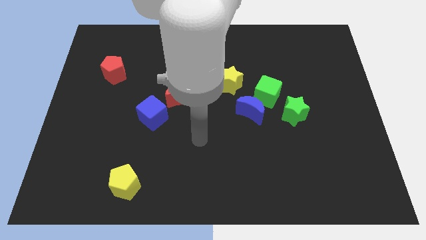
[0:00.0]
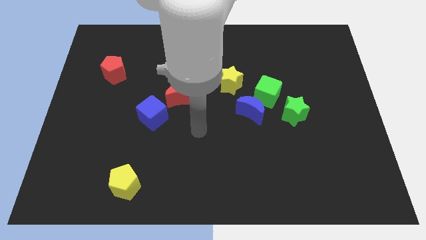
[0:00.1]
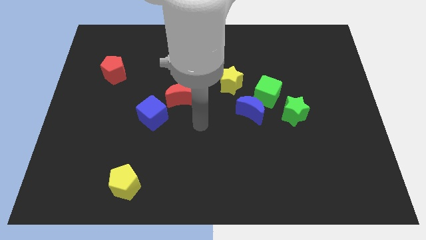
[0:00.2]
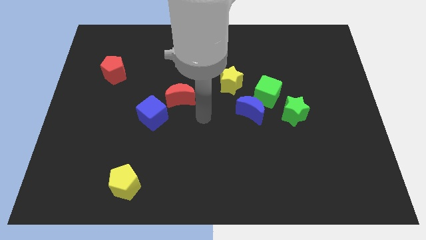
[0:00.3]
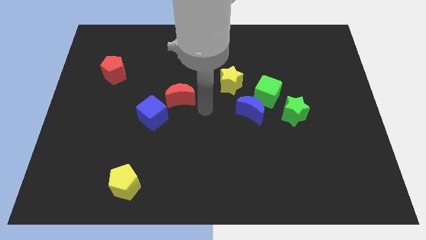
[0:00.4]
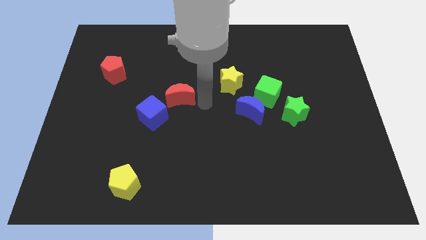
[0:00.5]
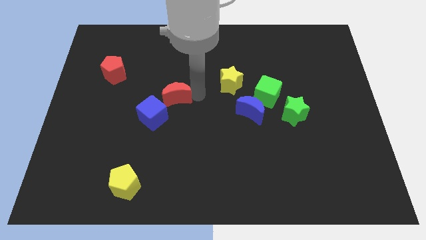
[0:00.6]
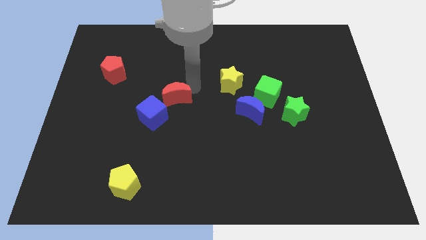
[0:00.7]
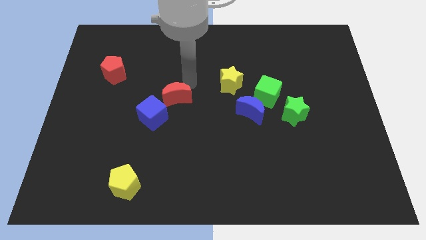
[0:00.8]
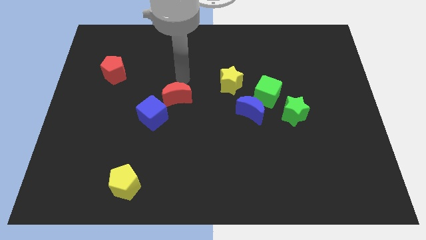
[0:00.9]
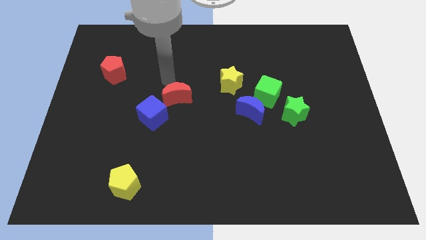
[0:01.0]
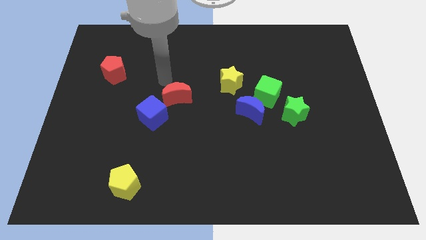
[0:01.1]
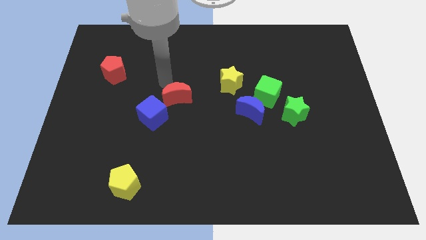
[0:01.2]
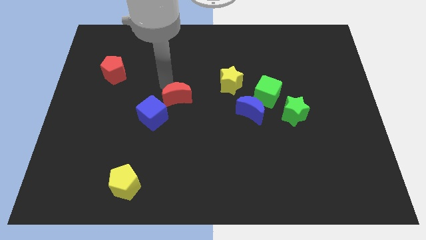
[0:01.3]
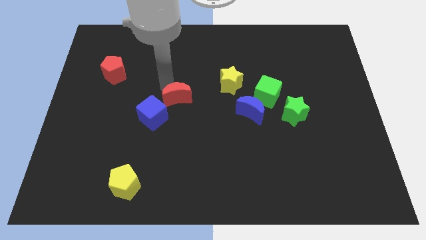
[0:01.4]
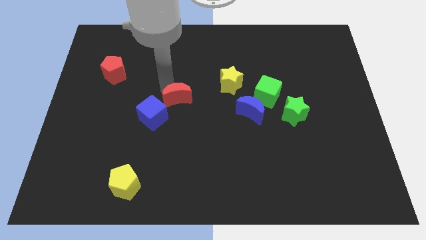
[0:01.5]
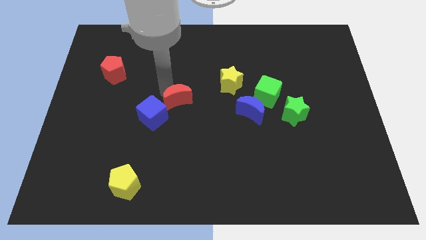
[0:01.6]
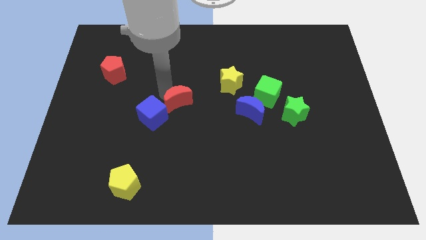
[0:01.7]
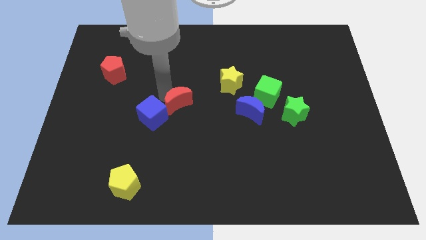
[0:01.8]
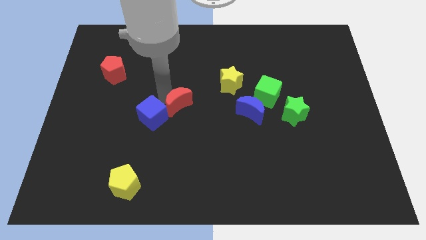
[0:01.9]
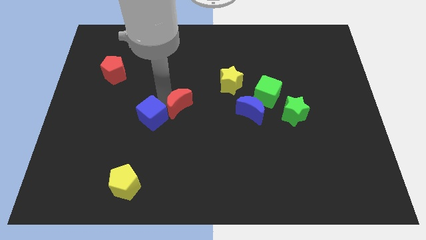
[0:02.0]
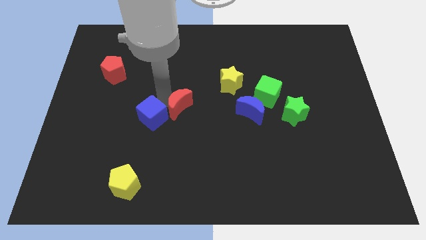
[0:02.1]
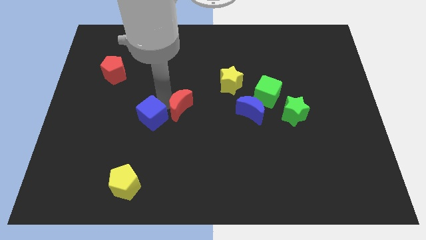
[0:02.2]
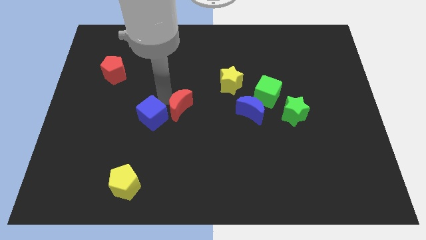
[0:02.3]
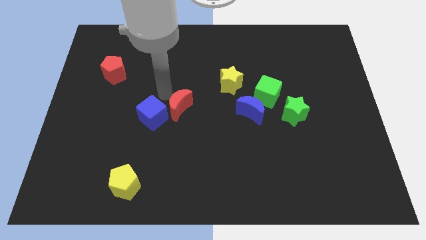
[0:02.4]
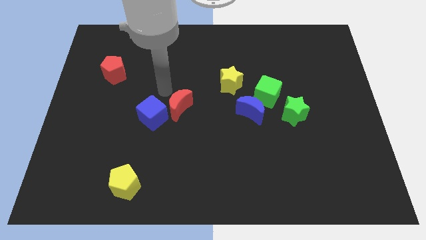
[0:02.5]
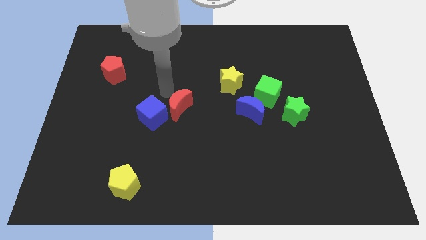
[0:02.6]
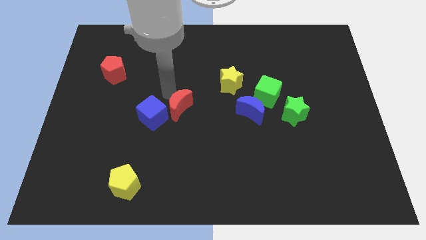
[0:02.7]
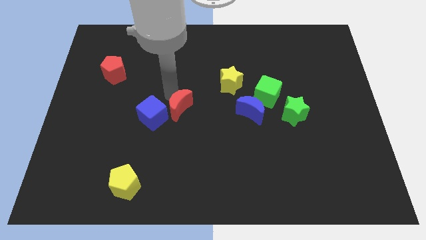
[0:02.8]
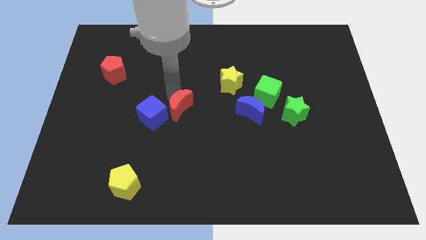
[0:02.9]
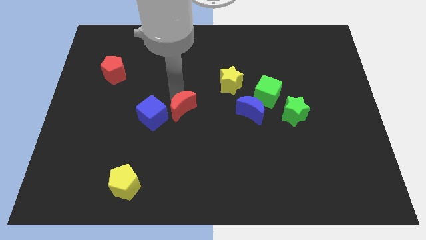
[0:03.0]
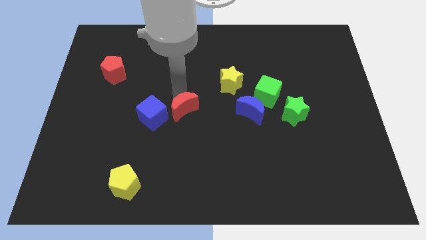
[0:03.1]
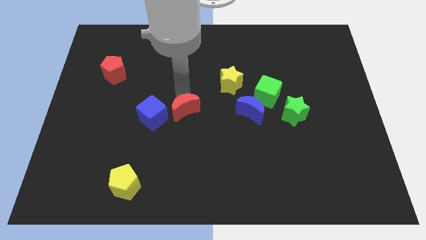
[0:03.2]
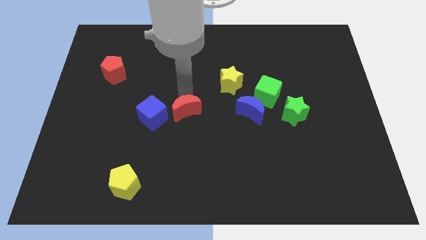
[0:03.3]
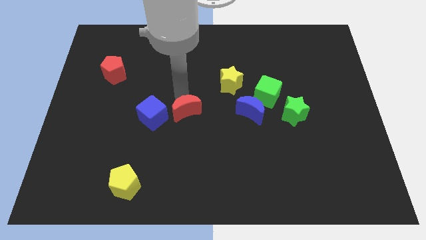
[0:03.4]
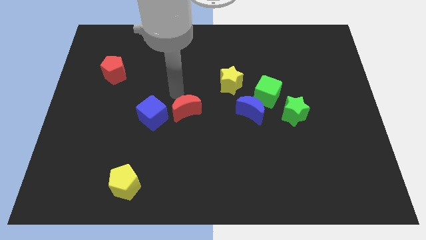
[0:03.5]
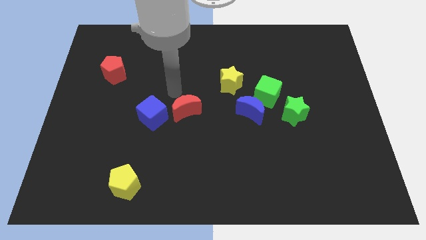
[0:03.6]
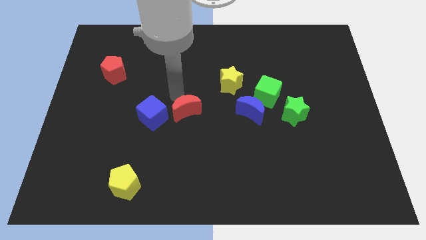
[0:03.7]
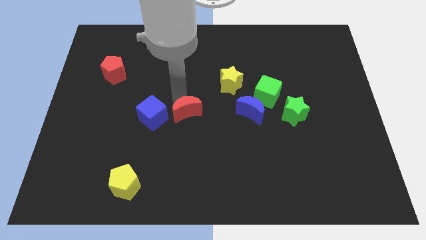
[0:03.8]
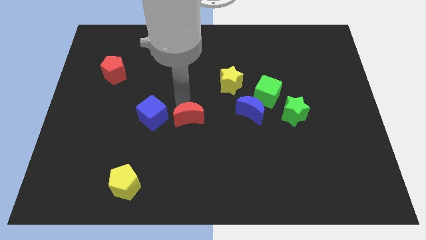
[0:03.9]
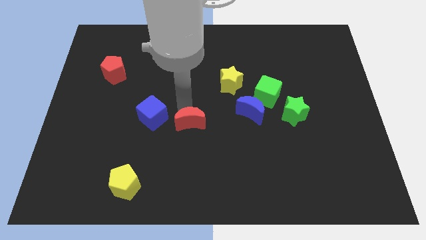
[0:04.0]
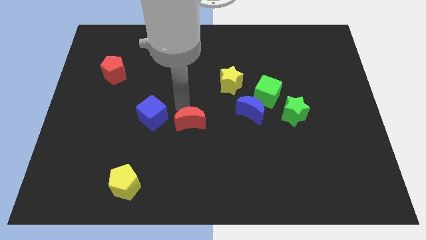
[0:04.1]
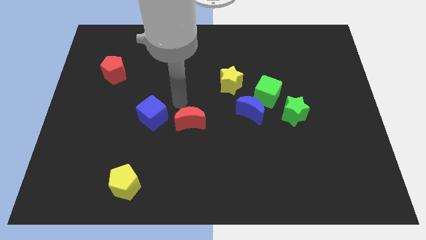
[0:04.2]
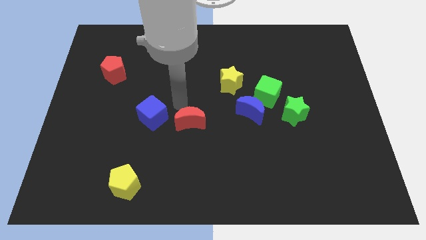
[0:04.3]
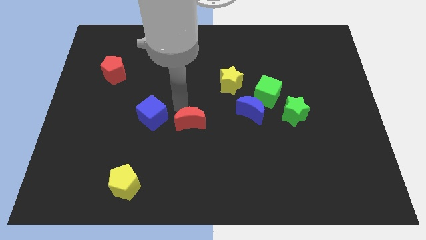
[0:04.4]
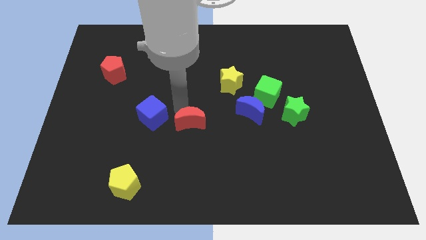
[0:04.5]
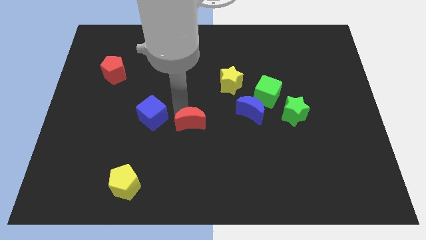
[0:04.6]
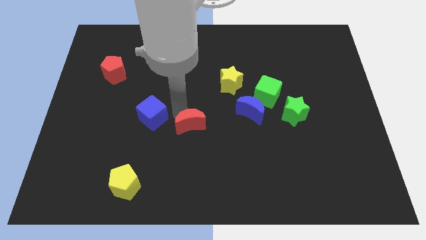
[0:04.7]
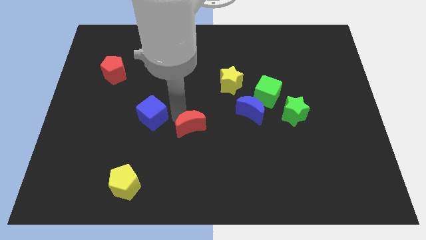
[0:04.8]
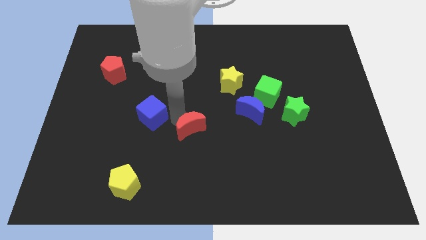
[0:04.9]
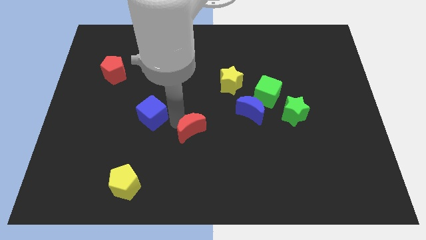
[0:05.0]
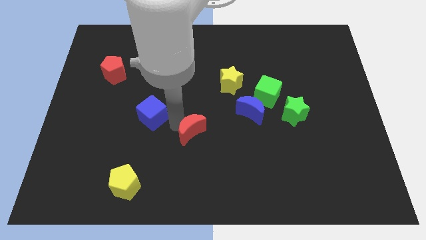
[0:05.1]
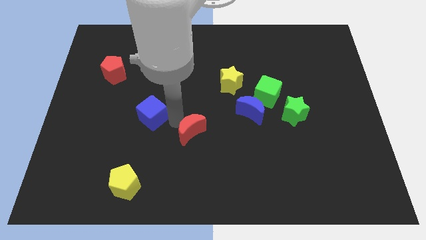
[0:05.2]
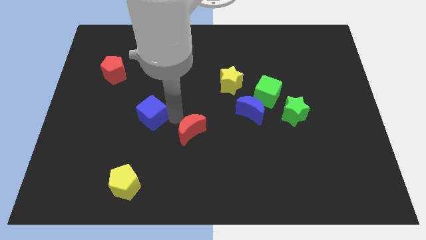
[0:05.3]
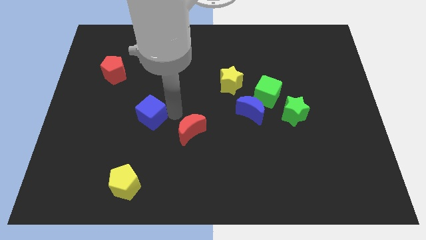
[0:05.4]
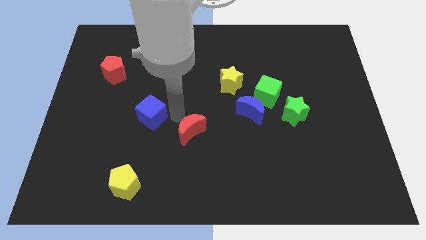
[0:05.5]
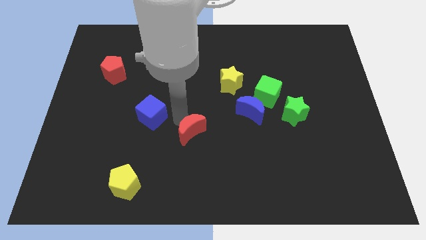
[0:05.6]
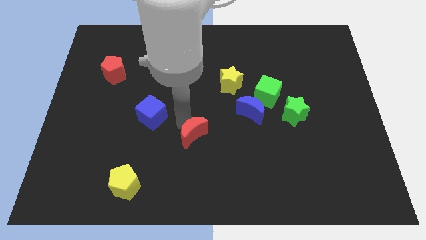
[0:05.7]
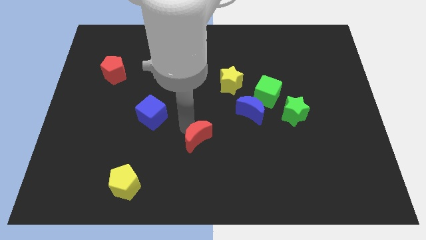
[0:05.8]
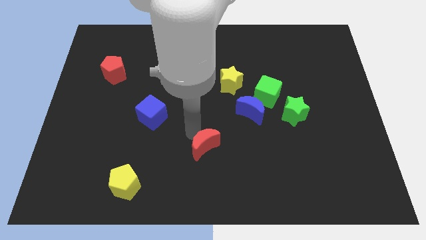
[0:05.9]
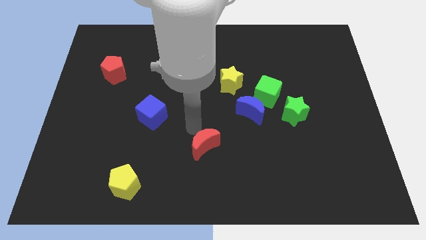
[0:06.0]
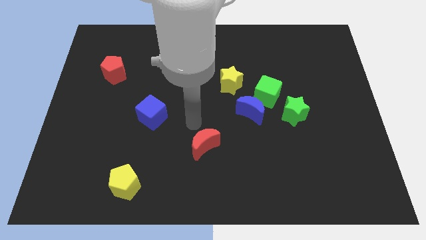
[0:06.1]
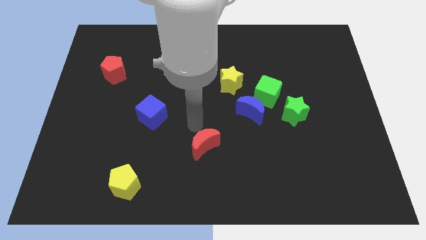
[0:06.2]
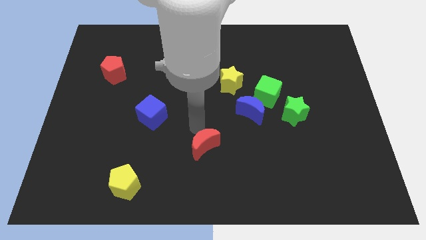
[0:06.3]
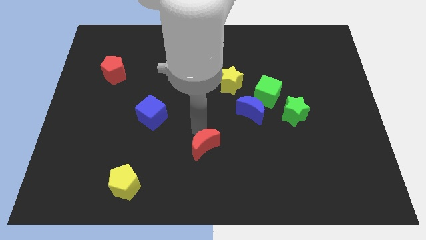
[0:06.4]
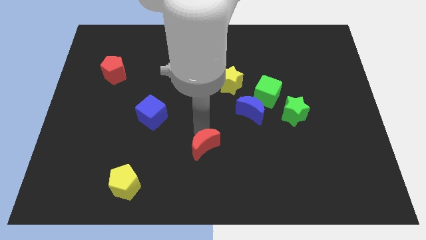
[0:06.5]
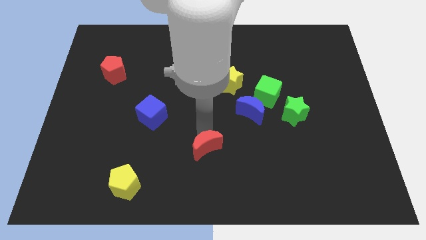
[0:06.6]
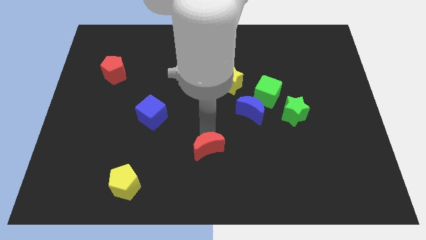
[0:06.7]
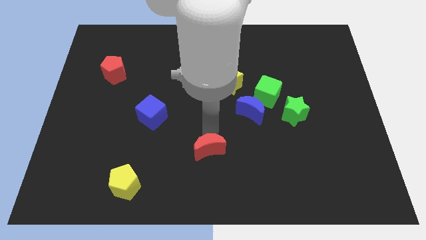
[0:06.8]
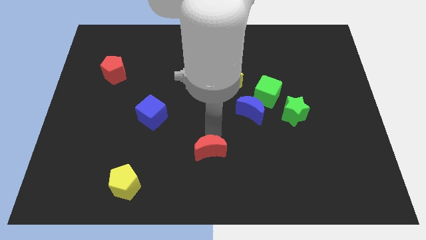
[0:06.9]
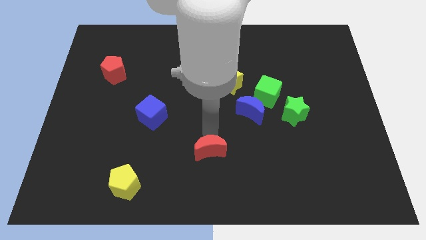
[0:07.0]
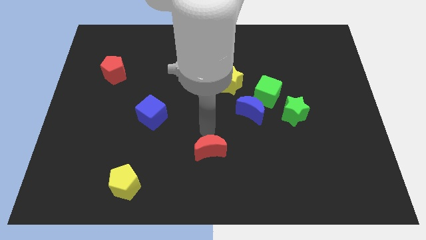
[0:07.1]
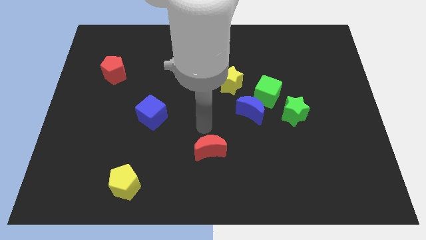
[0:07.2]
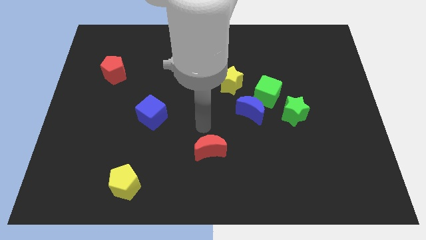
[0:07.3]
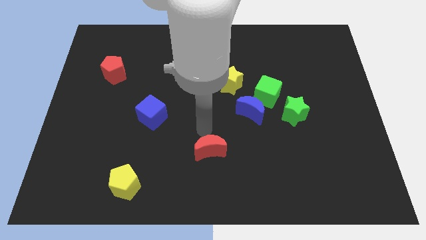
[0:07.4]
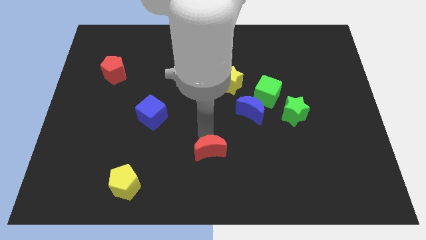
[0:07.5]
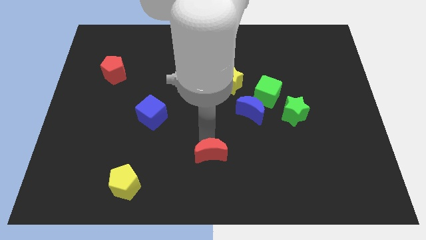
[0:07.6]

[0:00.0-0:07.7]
put the red moon to the bottom

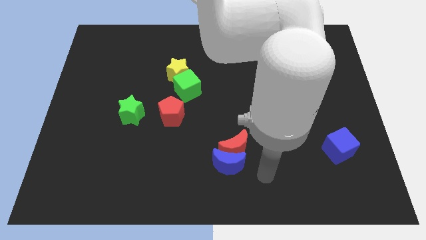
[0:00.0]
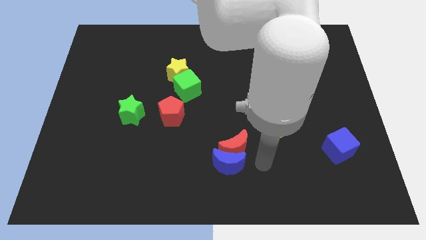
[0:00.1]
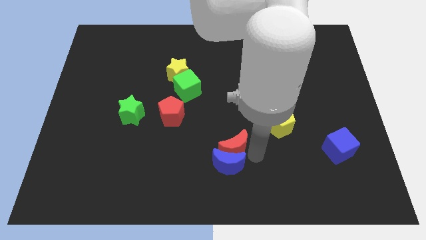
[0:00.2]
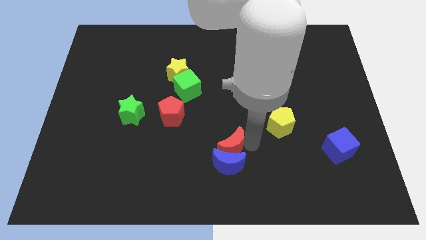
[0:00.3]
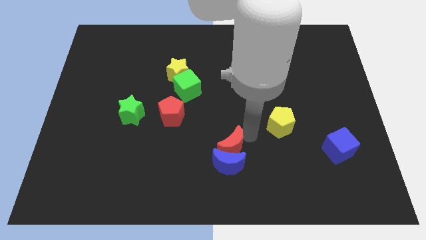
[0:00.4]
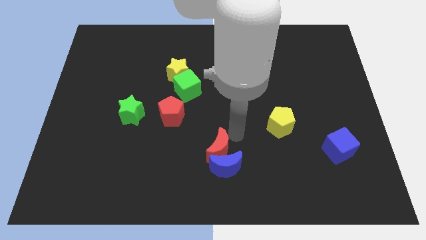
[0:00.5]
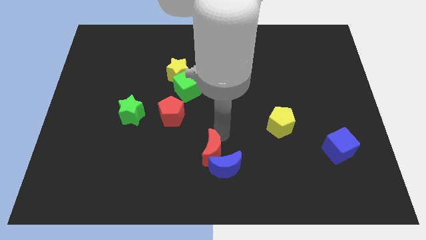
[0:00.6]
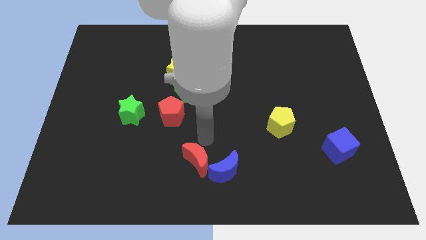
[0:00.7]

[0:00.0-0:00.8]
slide the red moon to the bottom
